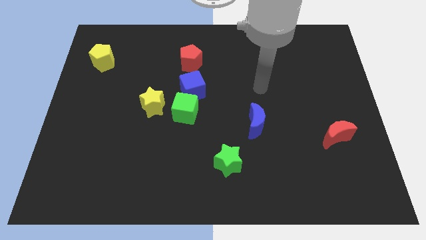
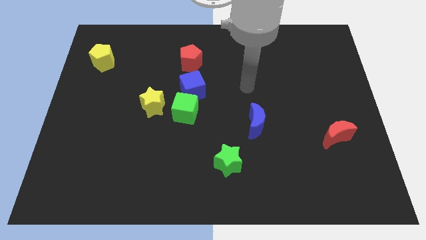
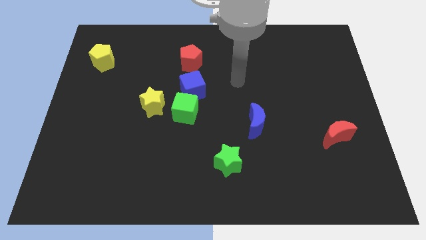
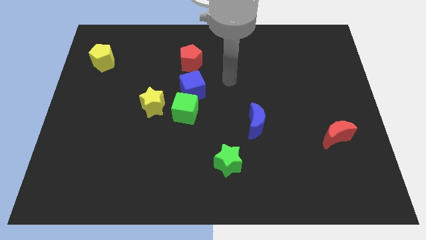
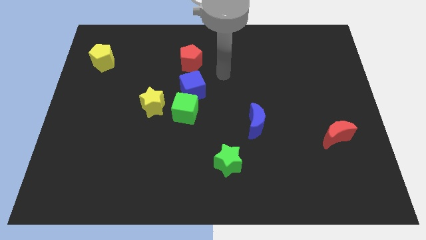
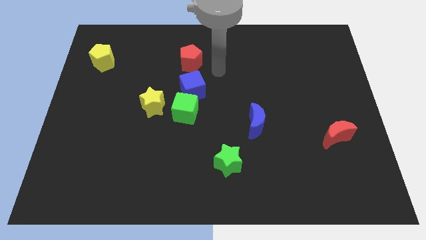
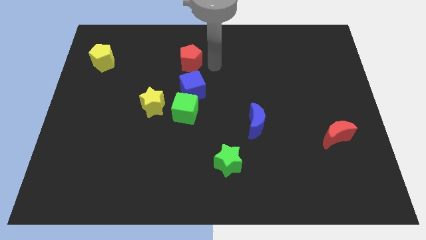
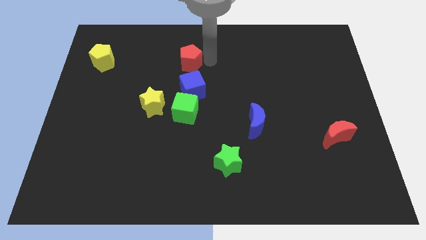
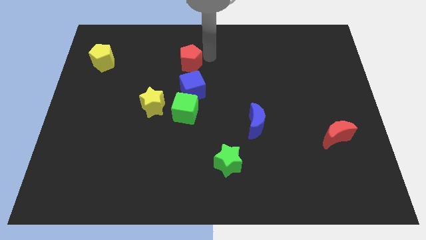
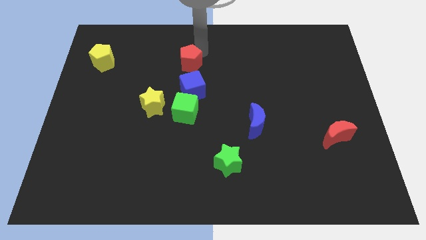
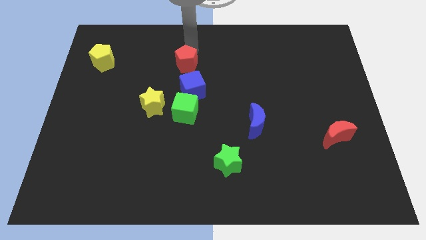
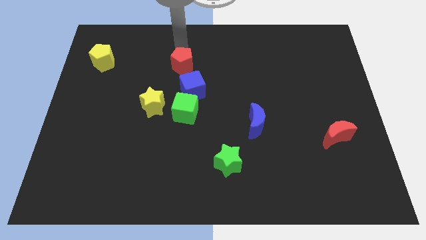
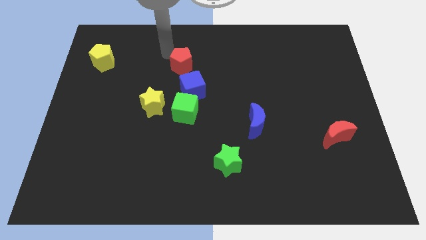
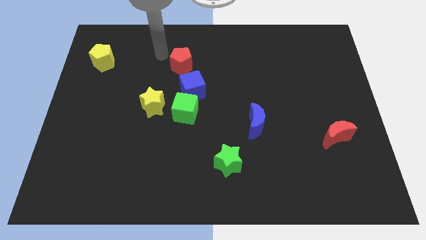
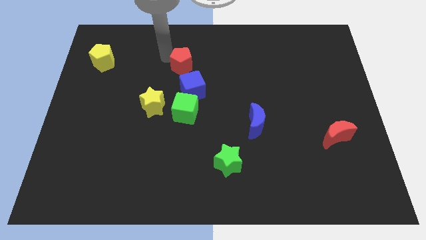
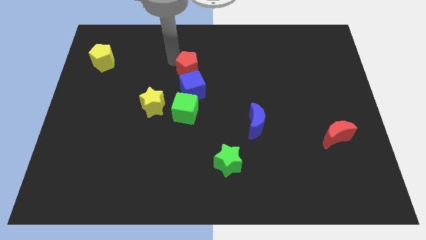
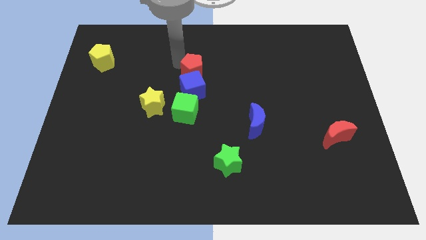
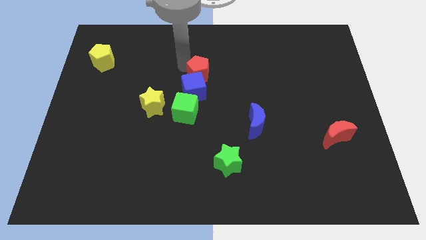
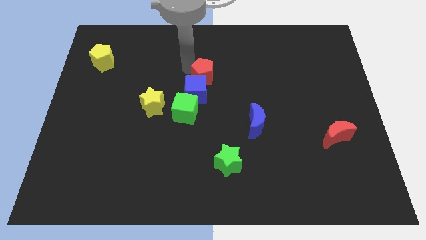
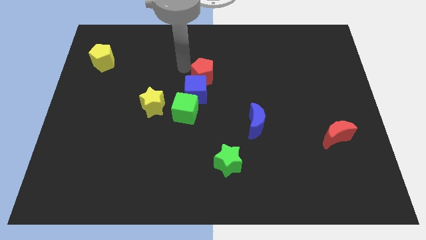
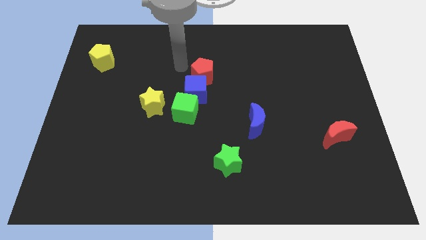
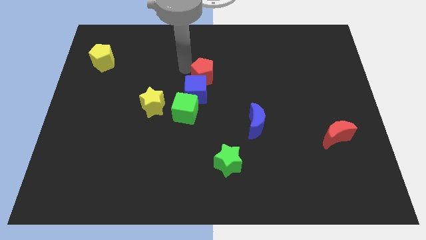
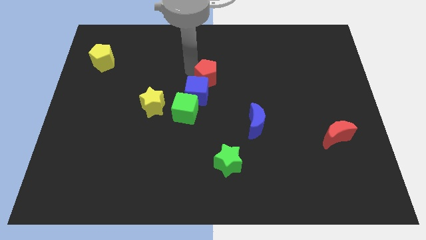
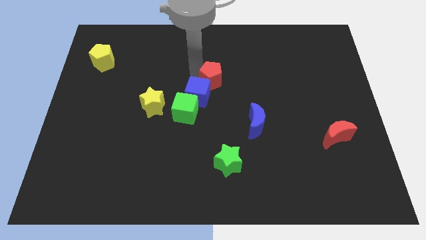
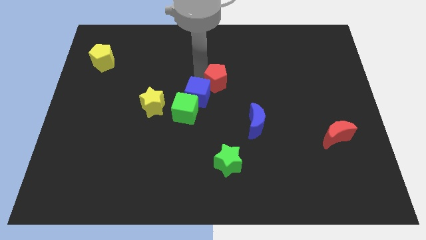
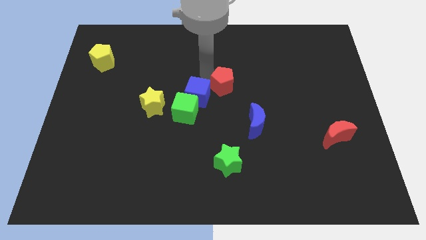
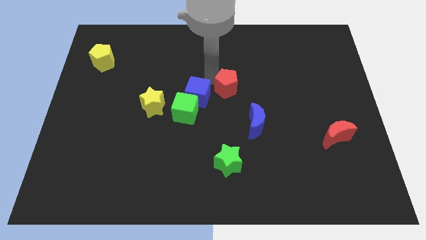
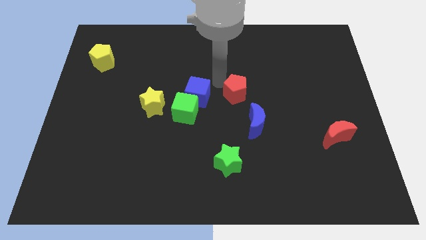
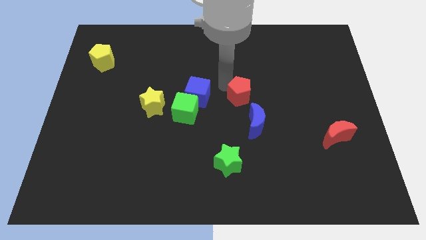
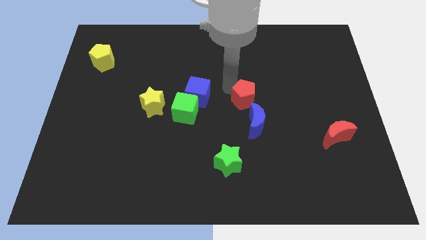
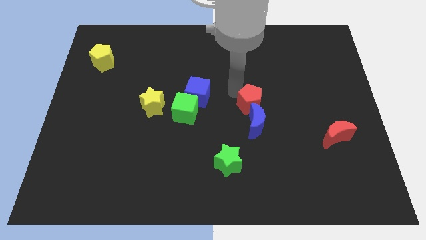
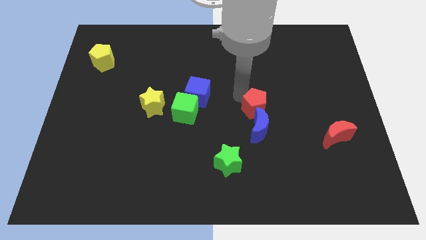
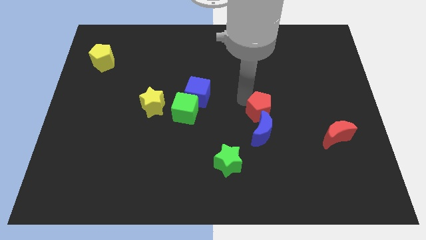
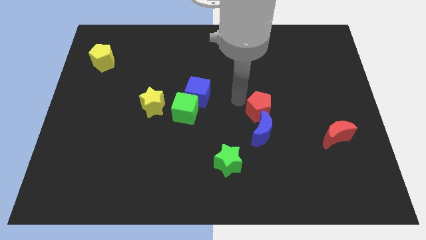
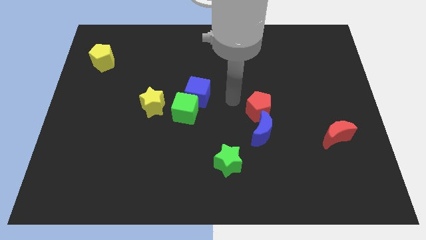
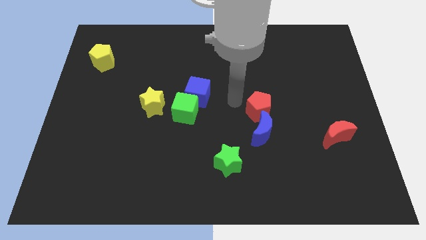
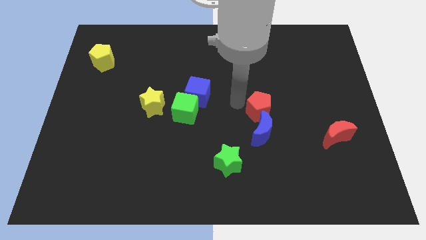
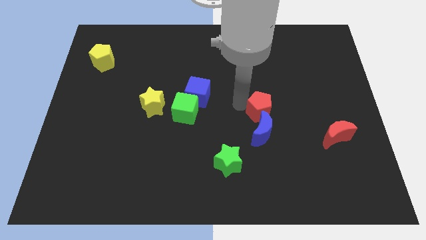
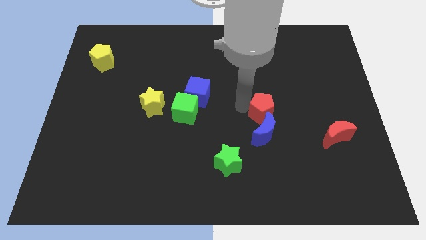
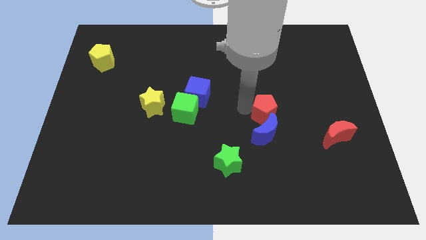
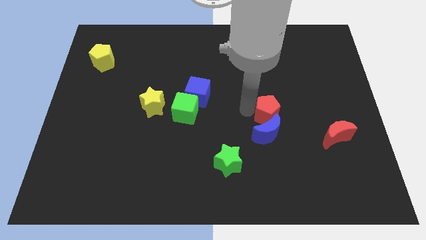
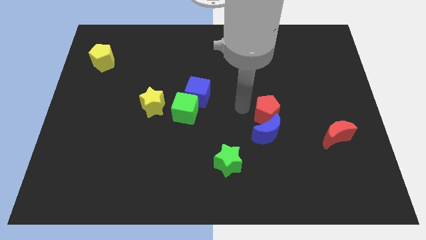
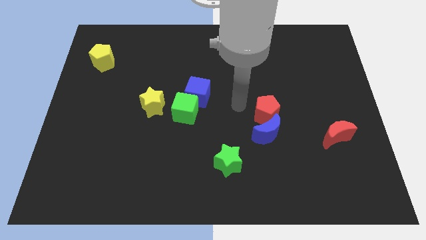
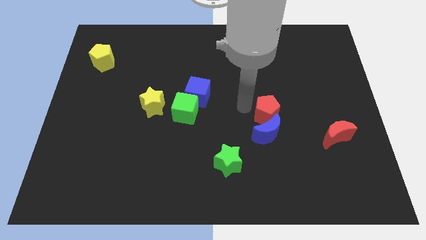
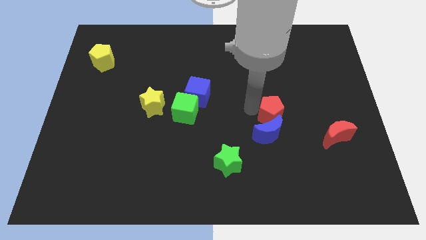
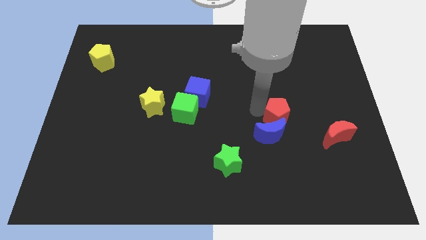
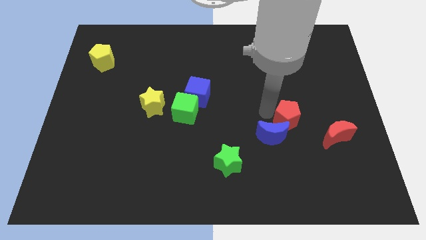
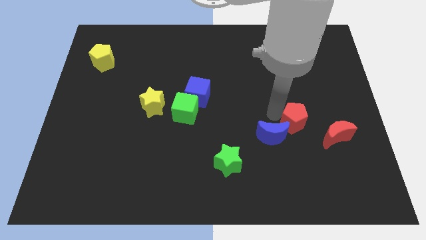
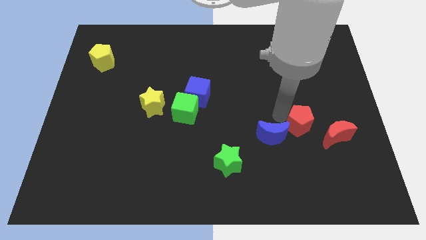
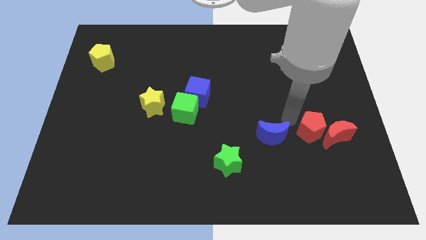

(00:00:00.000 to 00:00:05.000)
move the red pentagon close to the red moon

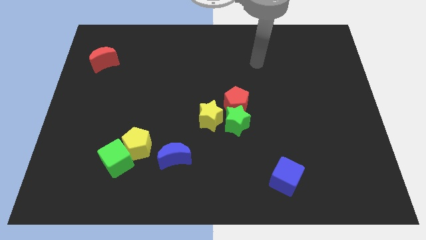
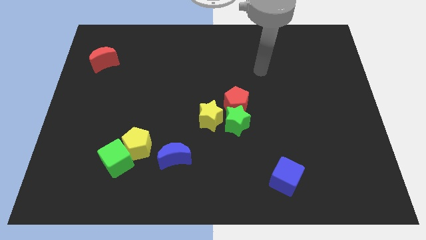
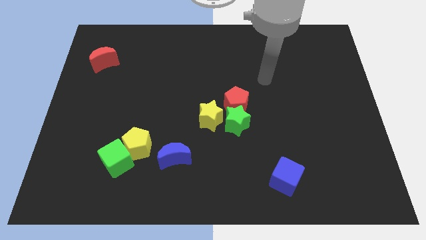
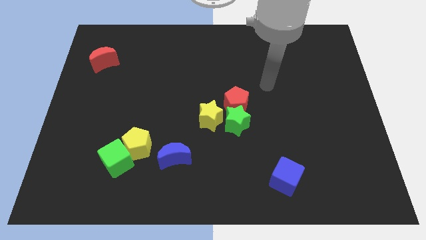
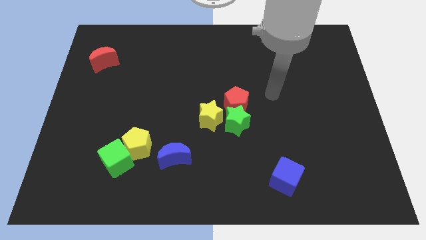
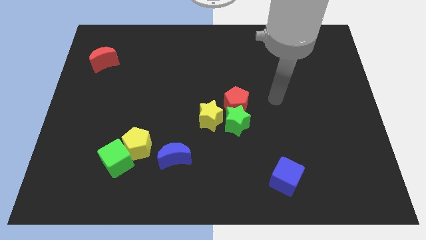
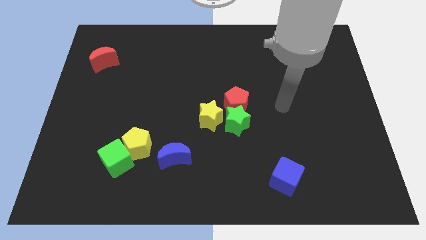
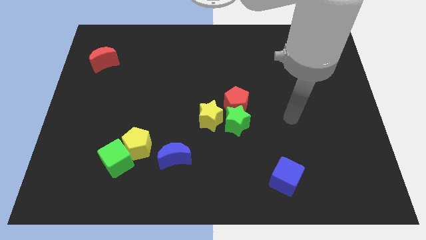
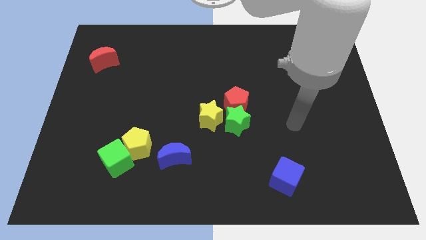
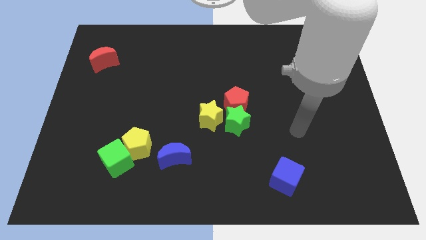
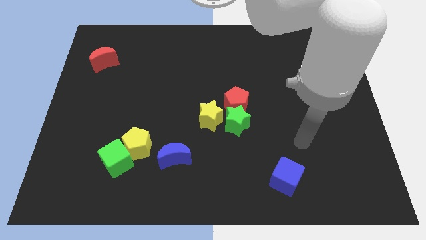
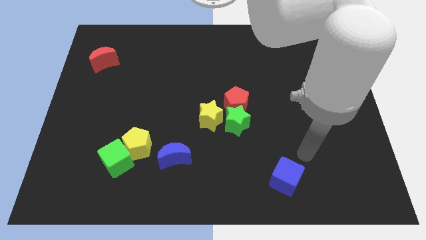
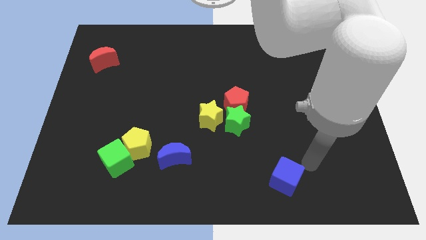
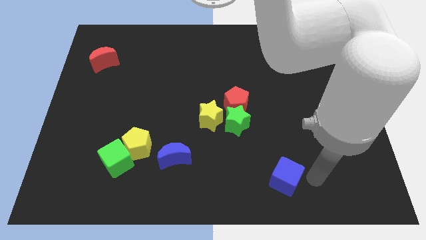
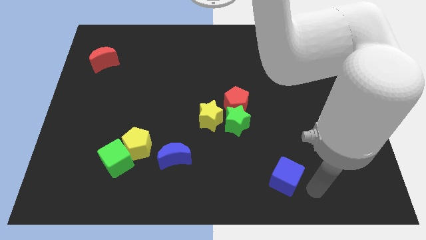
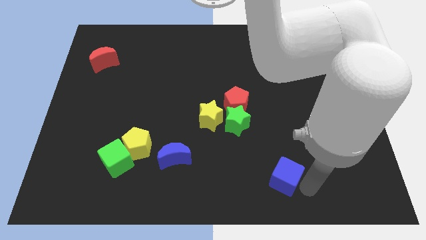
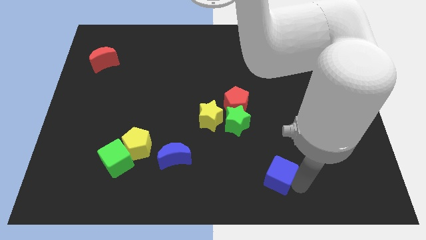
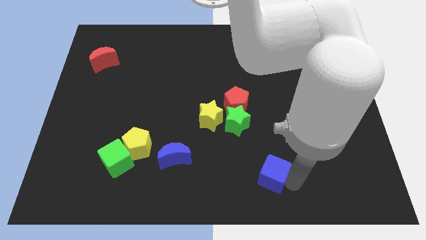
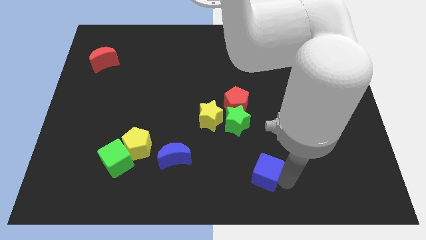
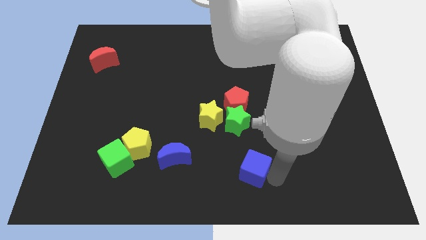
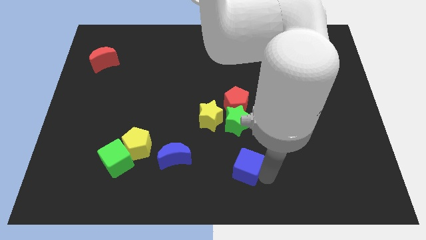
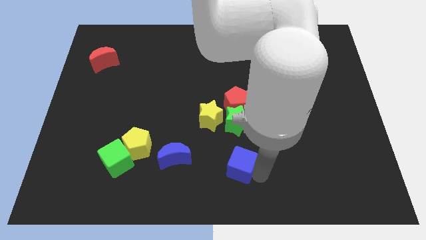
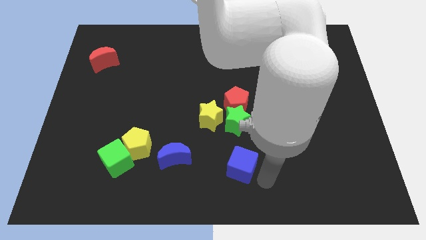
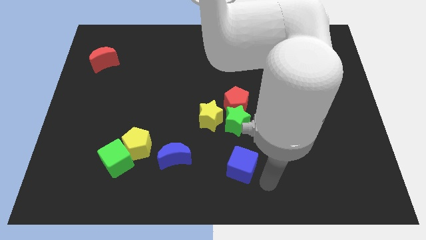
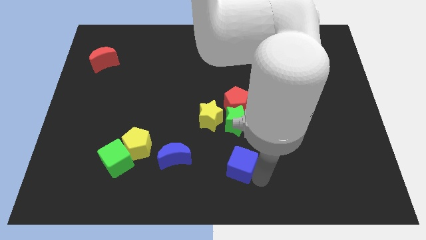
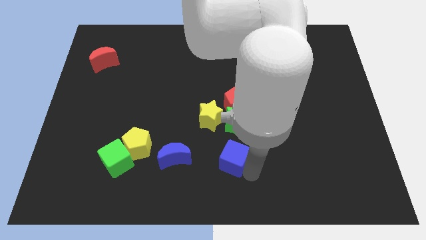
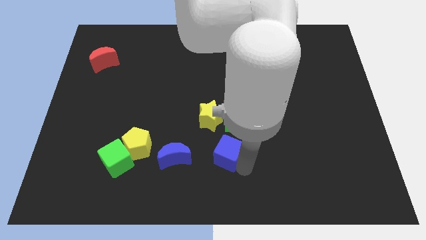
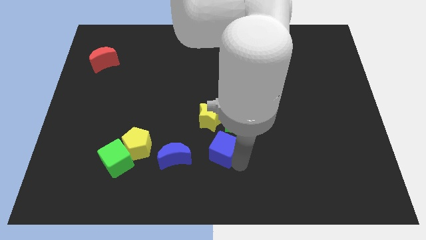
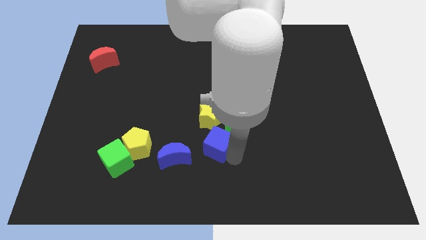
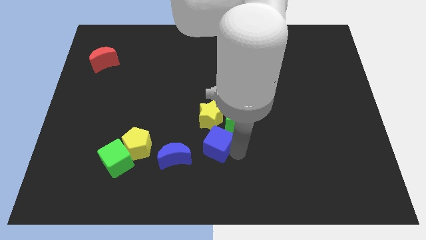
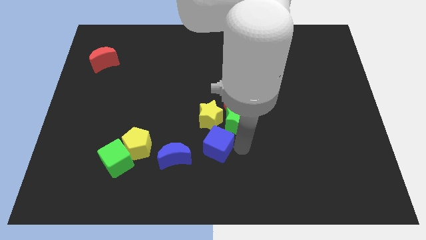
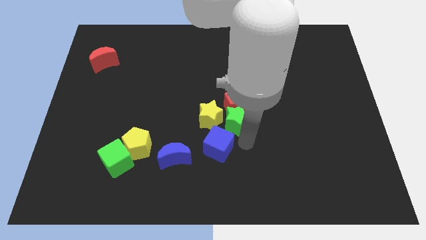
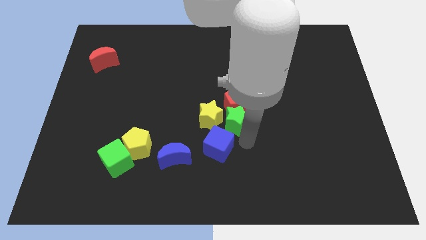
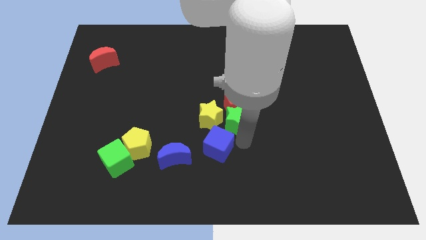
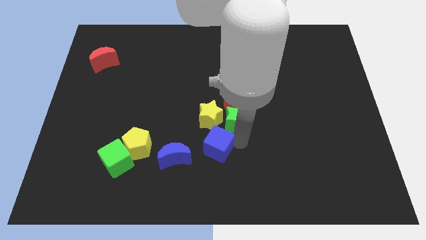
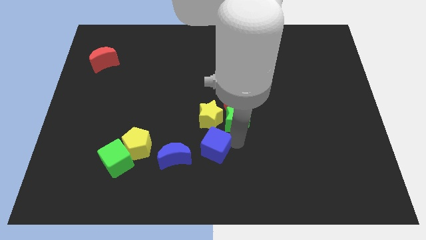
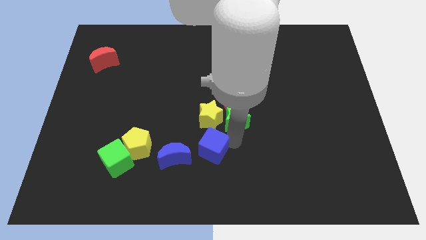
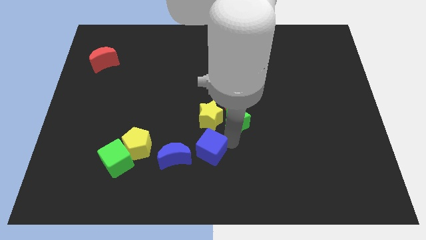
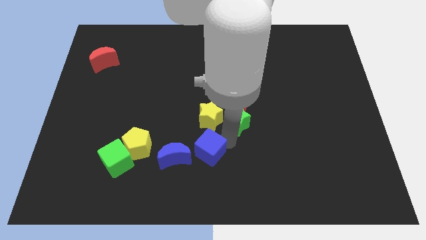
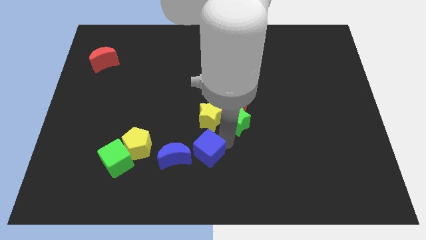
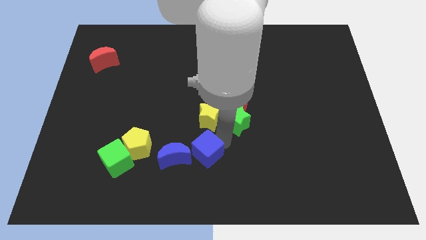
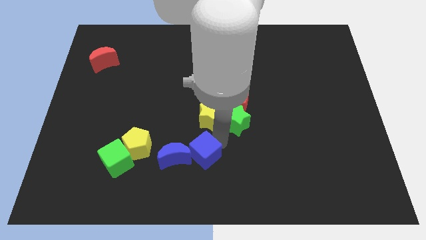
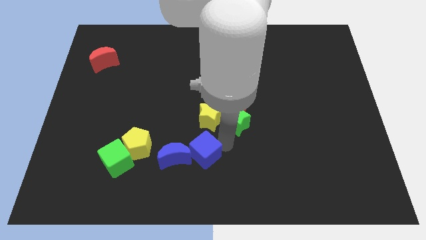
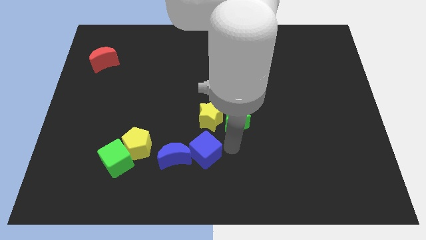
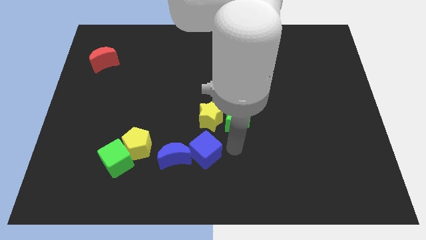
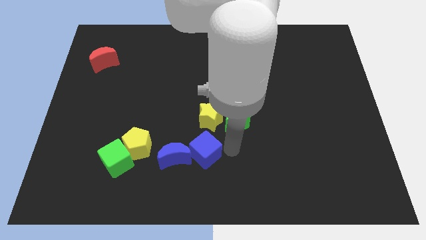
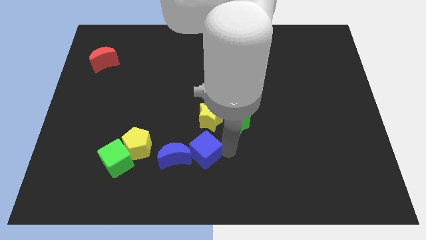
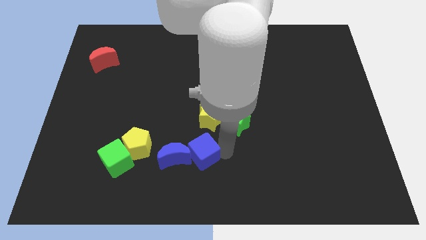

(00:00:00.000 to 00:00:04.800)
move the blue cube towards the blue moon
